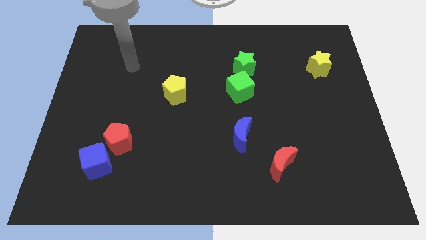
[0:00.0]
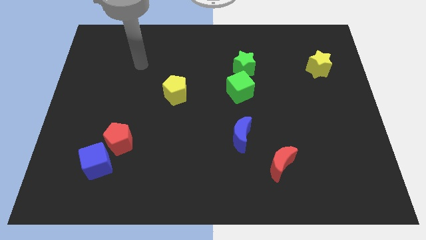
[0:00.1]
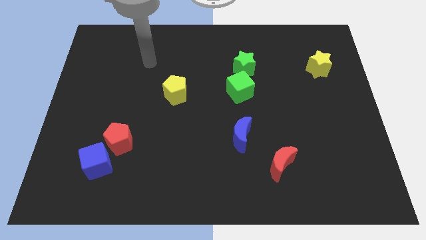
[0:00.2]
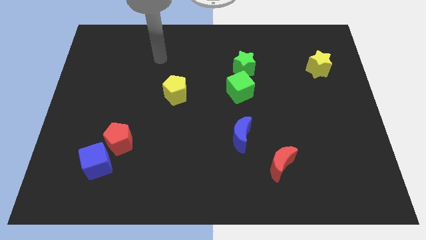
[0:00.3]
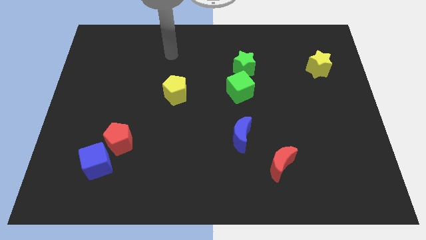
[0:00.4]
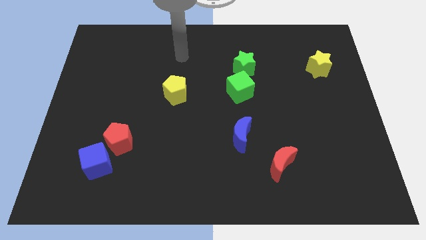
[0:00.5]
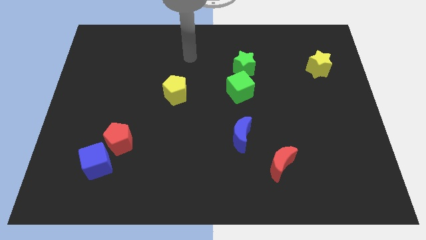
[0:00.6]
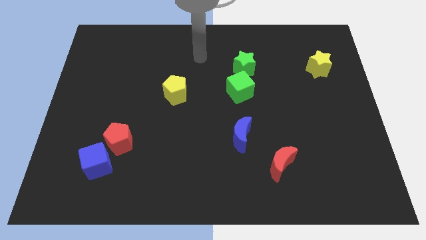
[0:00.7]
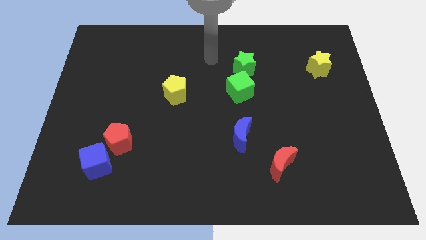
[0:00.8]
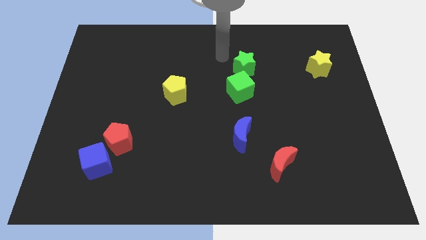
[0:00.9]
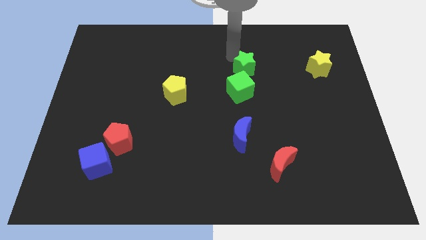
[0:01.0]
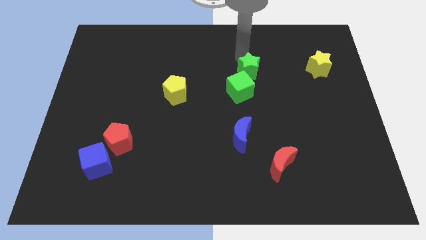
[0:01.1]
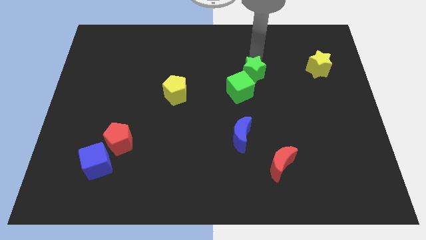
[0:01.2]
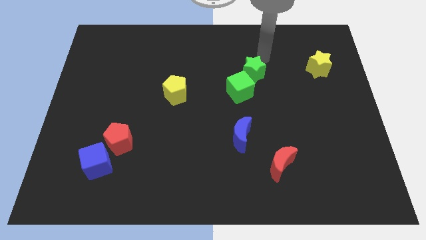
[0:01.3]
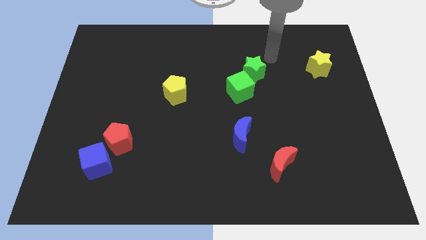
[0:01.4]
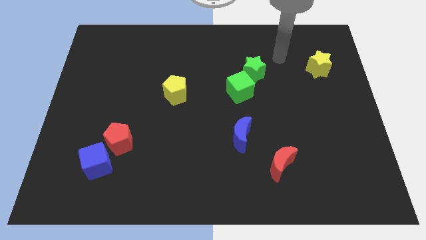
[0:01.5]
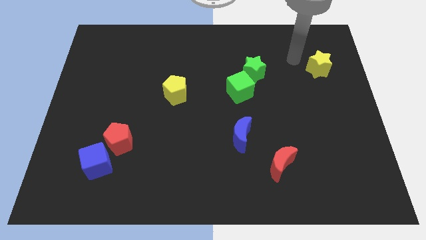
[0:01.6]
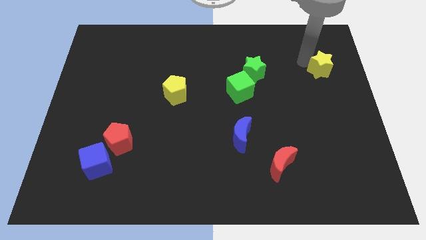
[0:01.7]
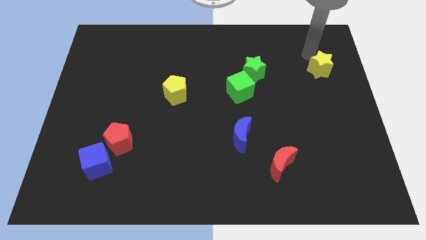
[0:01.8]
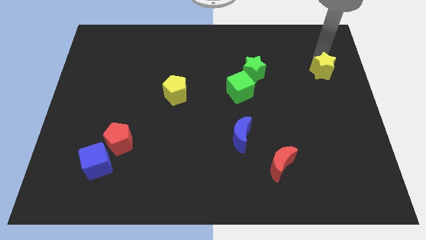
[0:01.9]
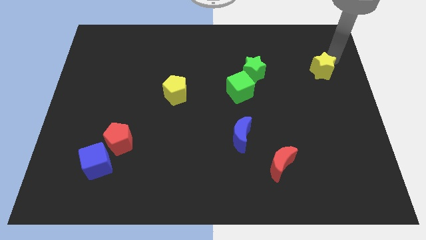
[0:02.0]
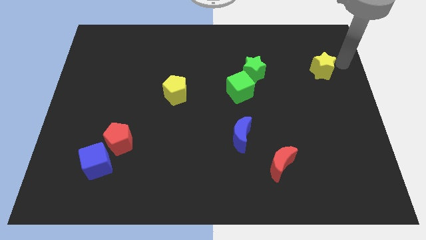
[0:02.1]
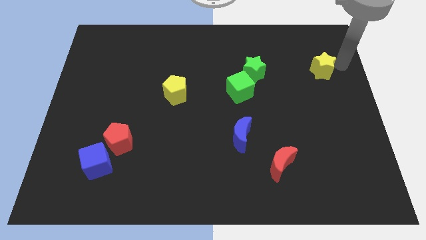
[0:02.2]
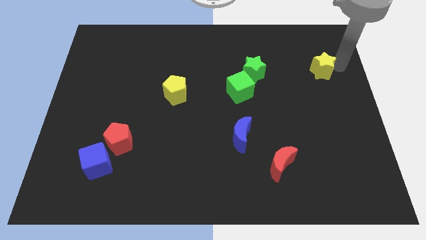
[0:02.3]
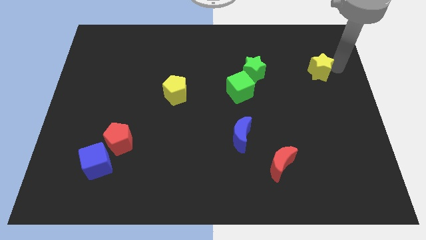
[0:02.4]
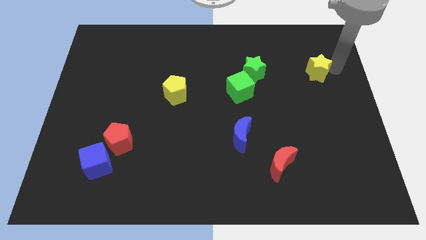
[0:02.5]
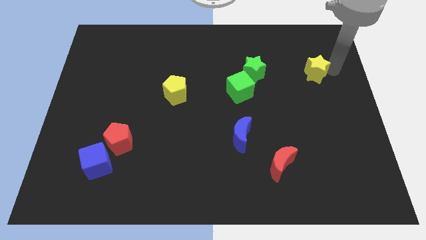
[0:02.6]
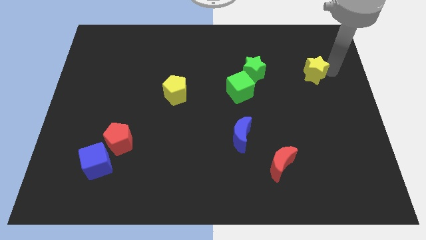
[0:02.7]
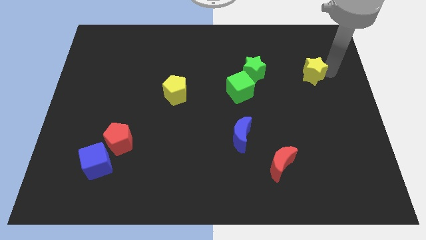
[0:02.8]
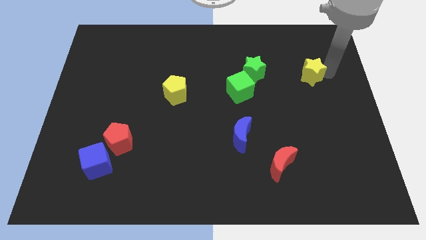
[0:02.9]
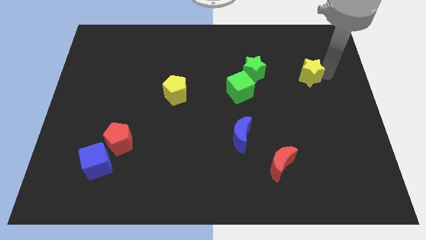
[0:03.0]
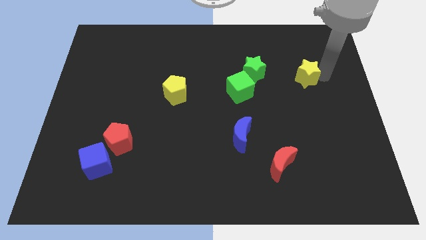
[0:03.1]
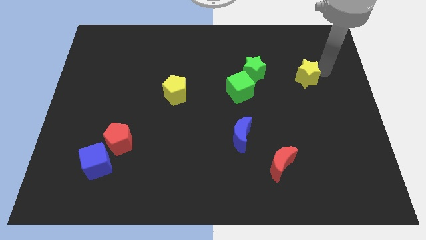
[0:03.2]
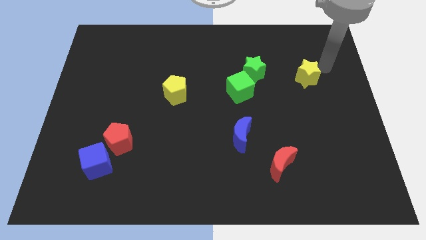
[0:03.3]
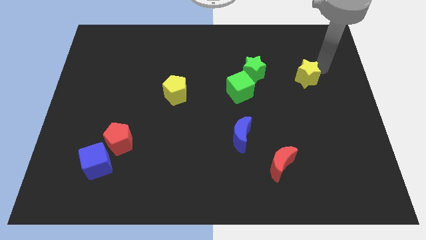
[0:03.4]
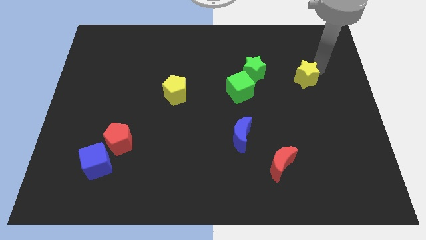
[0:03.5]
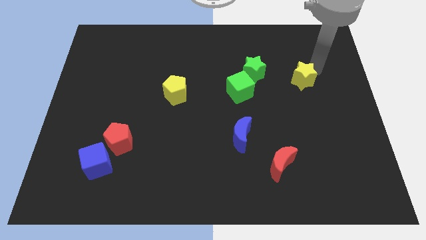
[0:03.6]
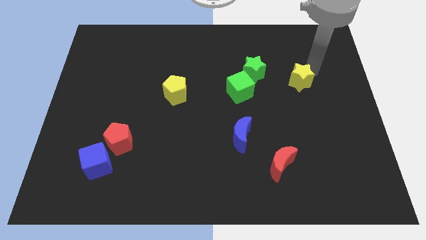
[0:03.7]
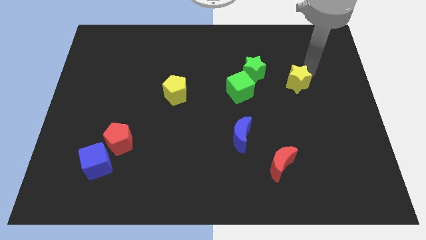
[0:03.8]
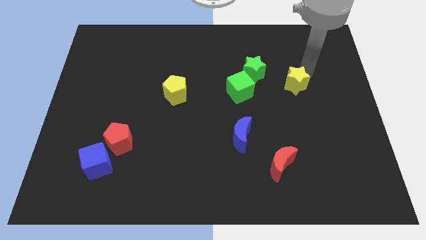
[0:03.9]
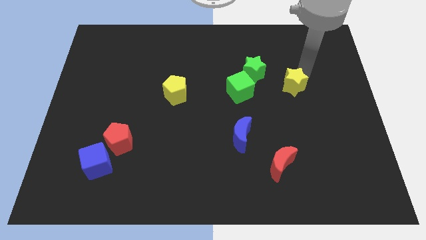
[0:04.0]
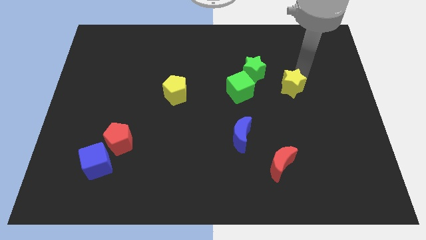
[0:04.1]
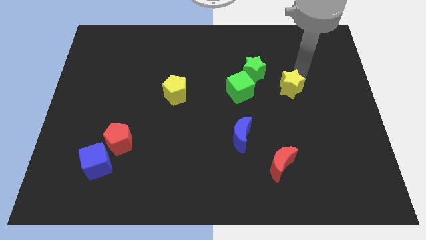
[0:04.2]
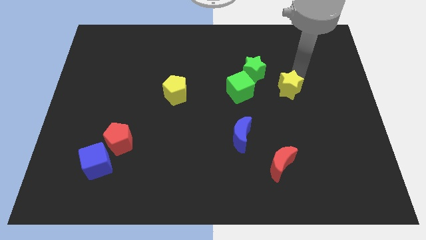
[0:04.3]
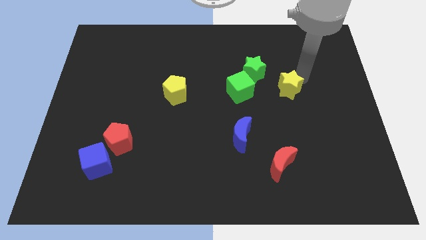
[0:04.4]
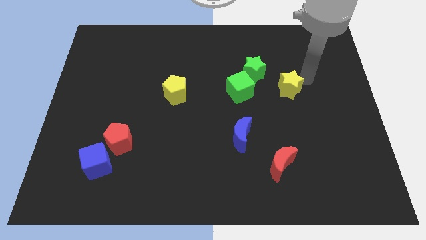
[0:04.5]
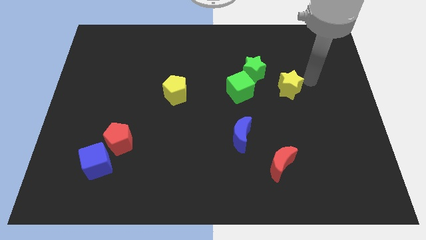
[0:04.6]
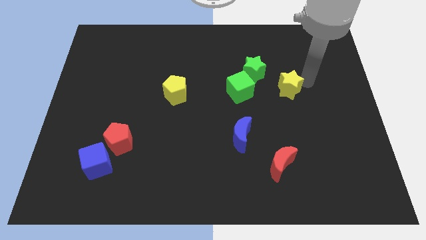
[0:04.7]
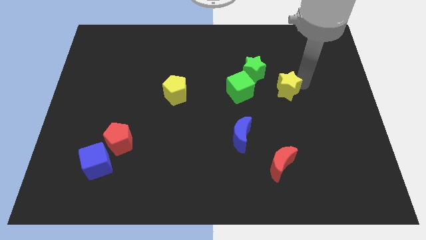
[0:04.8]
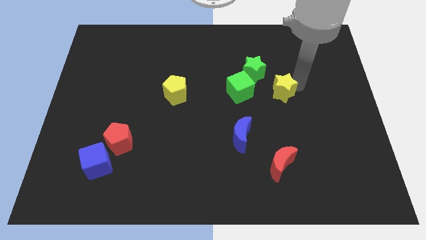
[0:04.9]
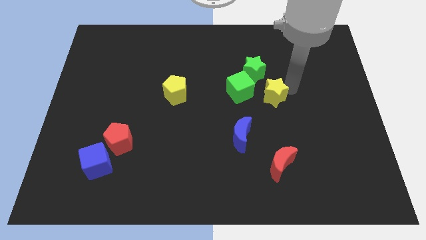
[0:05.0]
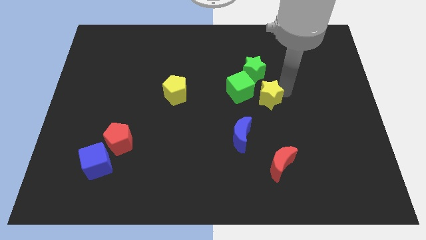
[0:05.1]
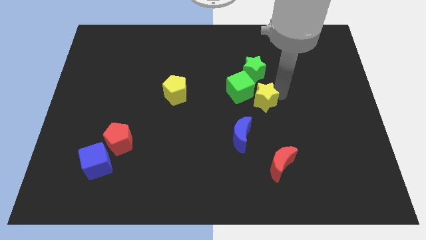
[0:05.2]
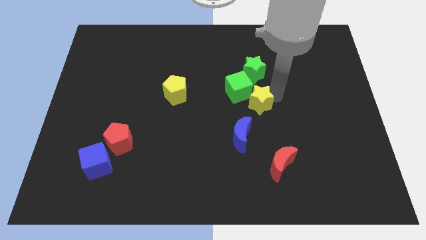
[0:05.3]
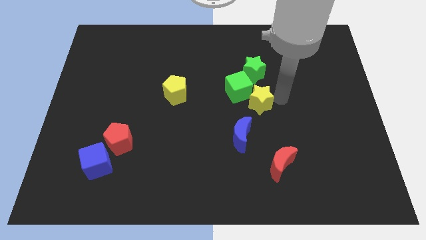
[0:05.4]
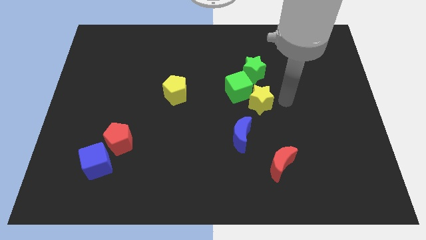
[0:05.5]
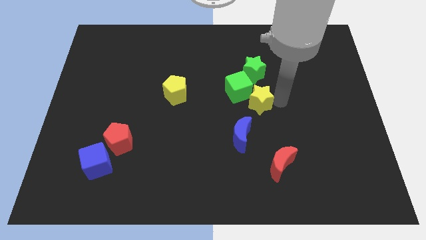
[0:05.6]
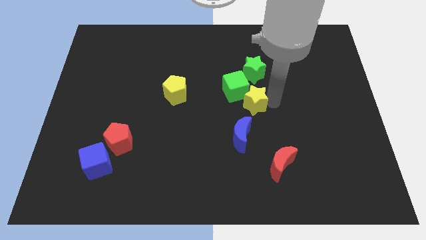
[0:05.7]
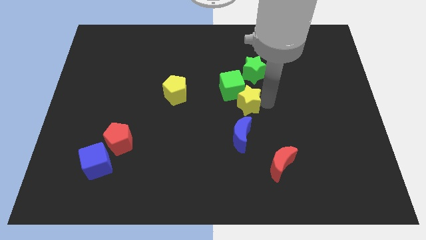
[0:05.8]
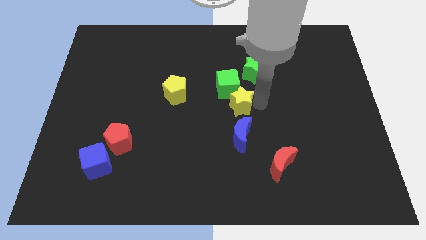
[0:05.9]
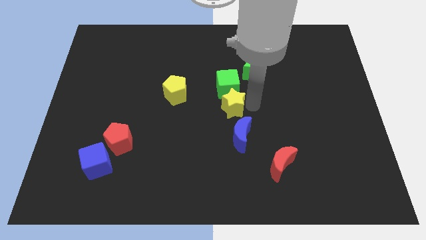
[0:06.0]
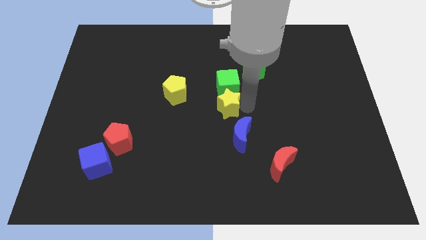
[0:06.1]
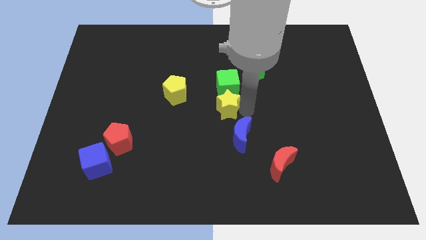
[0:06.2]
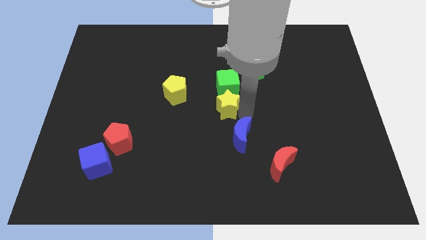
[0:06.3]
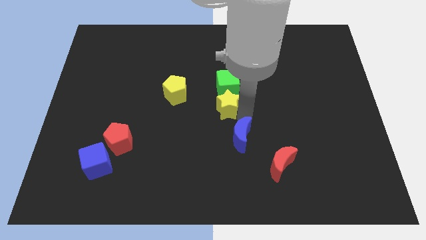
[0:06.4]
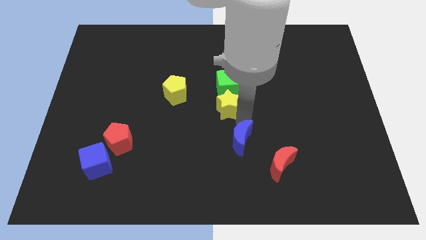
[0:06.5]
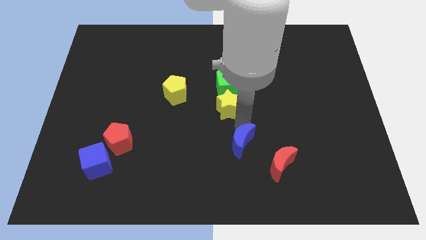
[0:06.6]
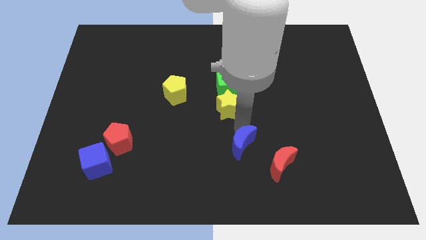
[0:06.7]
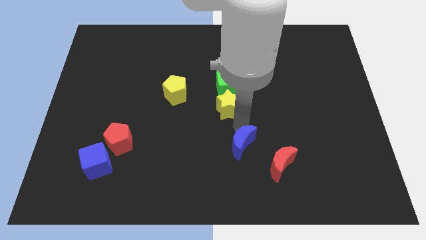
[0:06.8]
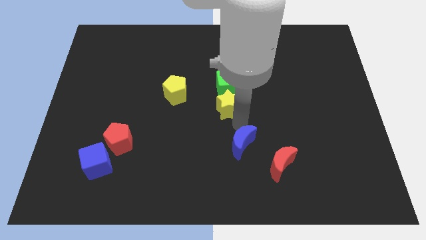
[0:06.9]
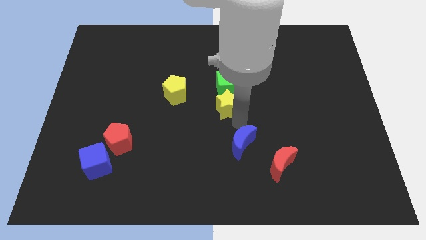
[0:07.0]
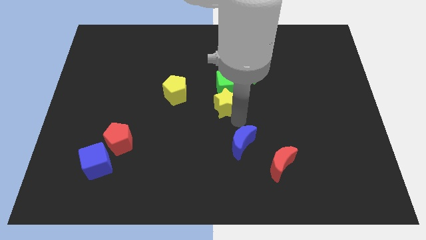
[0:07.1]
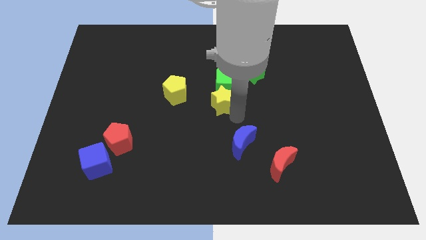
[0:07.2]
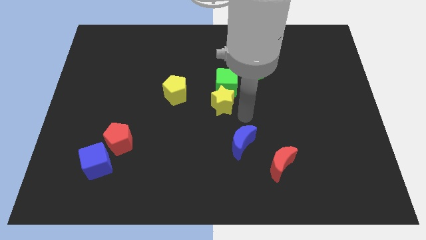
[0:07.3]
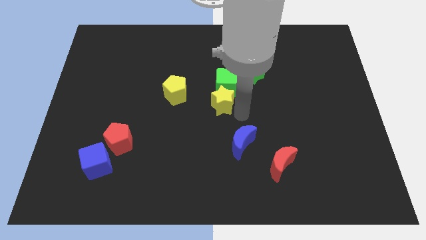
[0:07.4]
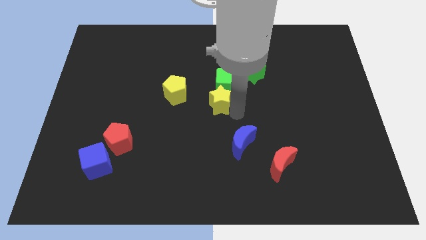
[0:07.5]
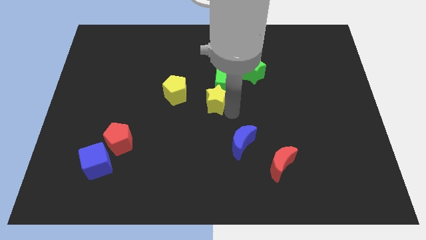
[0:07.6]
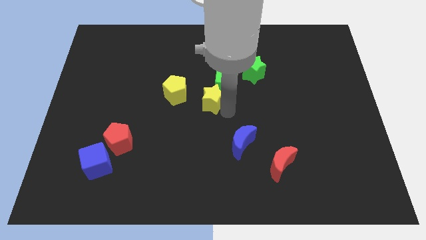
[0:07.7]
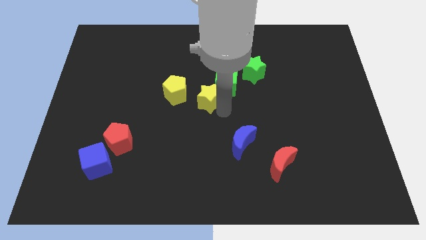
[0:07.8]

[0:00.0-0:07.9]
slide the yellow star to the left of the green cube
